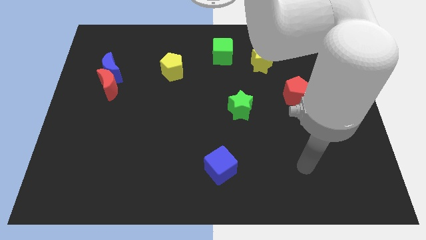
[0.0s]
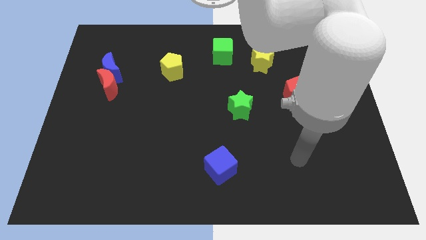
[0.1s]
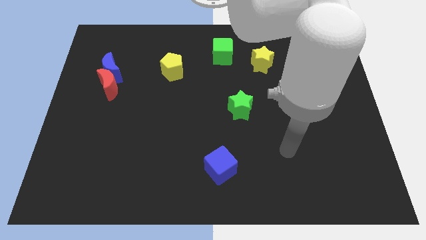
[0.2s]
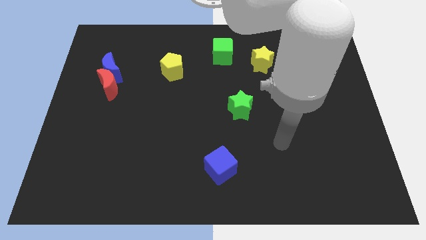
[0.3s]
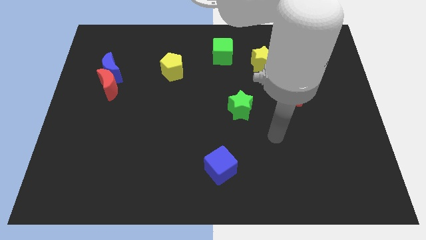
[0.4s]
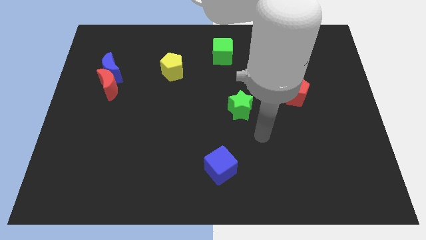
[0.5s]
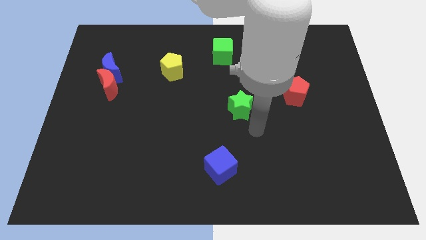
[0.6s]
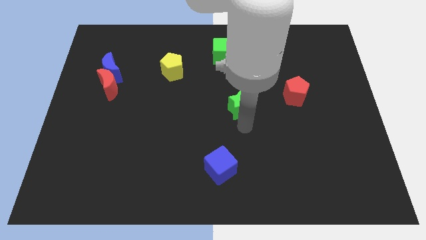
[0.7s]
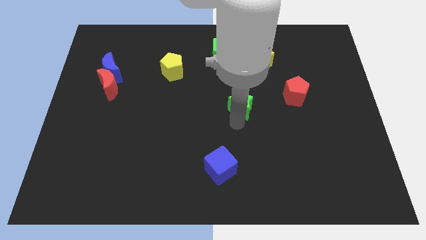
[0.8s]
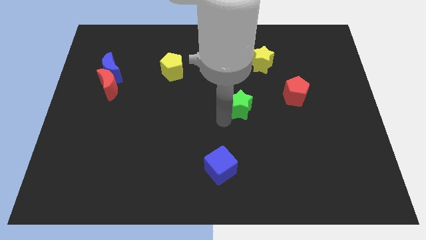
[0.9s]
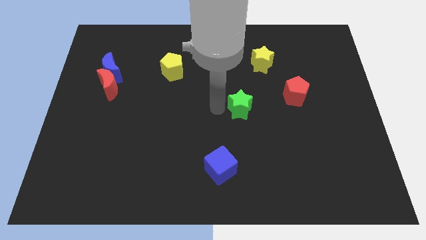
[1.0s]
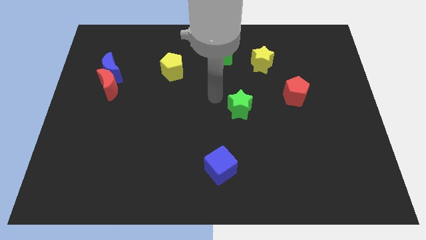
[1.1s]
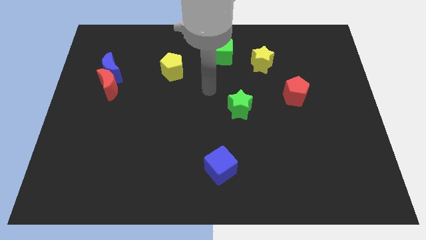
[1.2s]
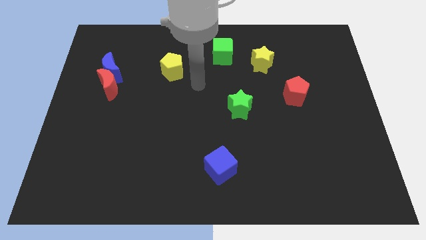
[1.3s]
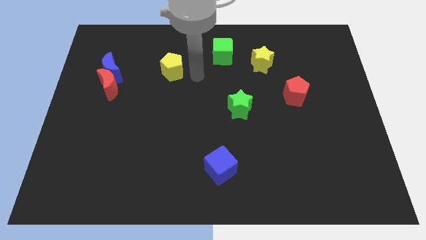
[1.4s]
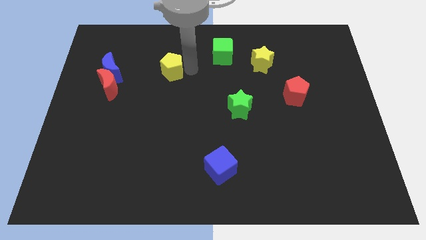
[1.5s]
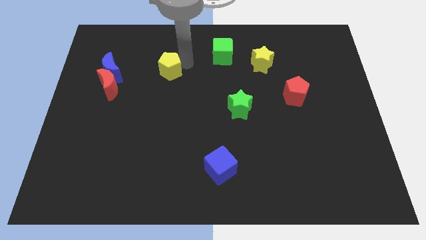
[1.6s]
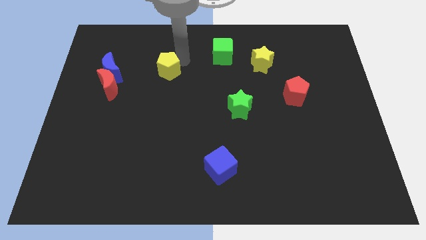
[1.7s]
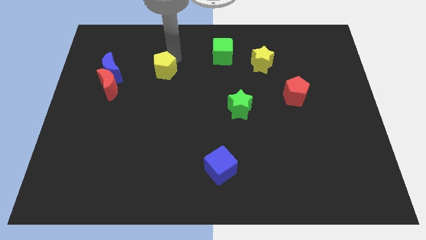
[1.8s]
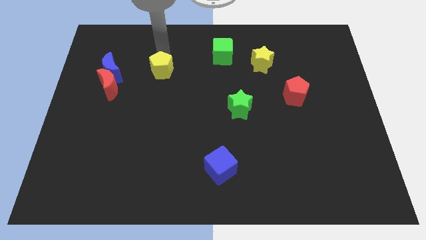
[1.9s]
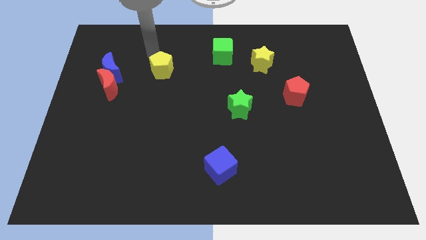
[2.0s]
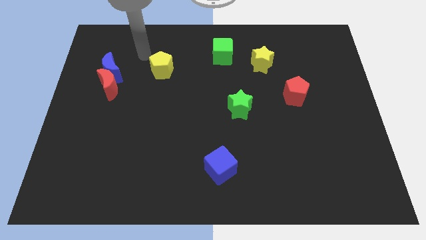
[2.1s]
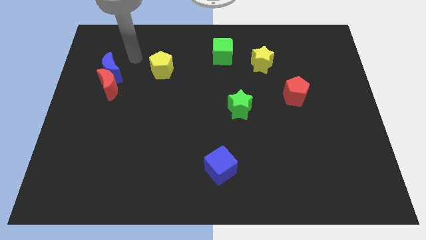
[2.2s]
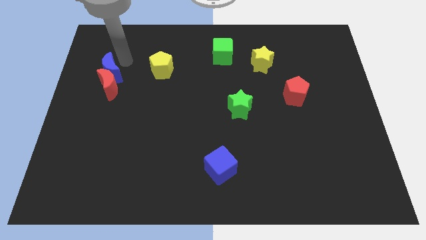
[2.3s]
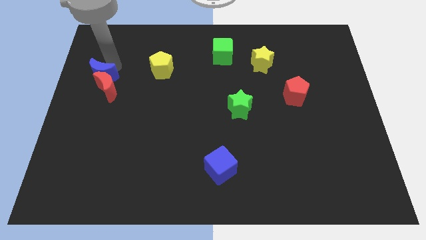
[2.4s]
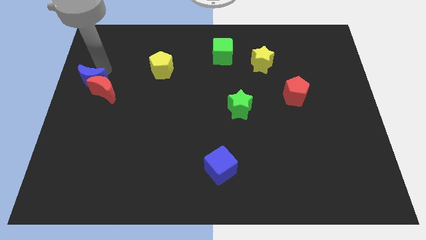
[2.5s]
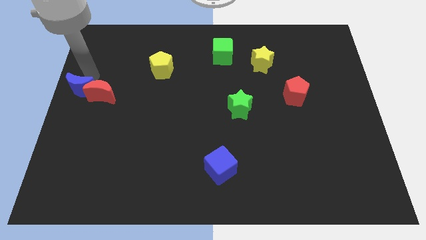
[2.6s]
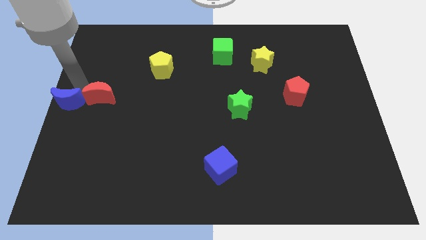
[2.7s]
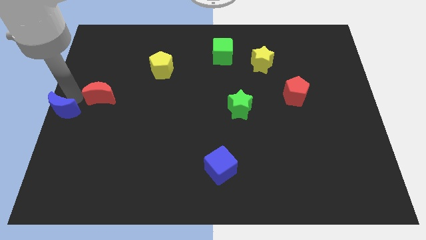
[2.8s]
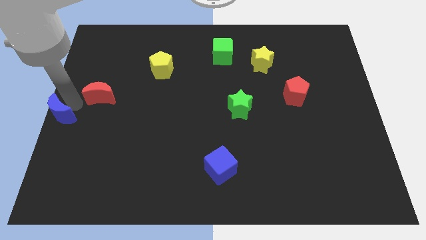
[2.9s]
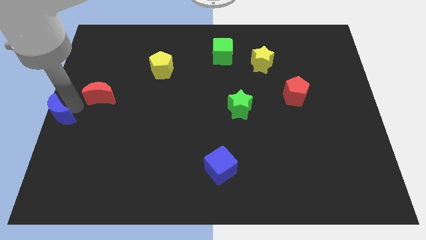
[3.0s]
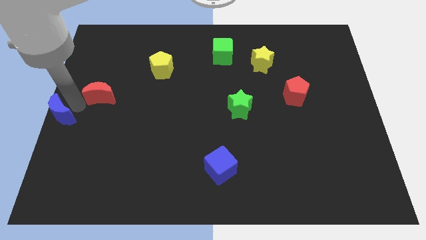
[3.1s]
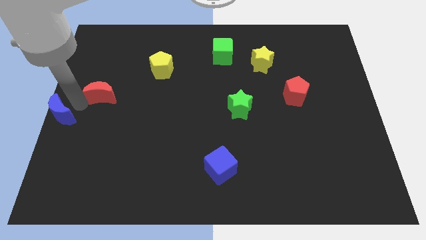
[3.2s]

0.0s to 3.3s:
pull the red moon apart from the blue moon

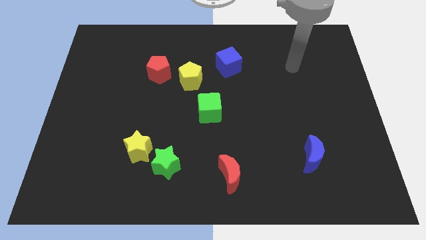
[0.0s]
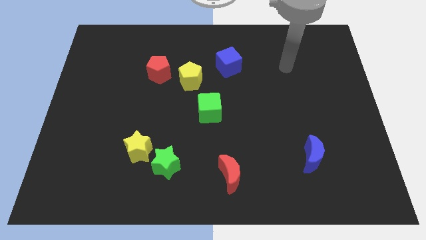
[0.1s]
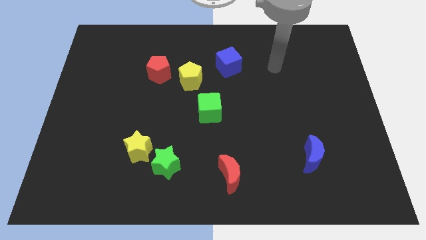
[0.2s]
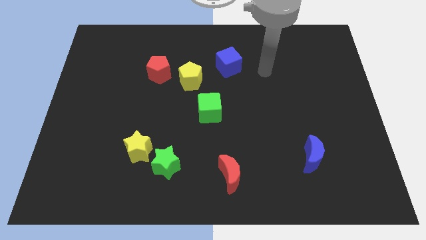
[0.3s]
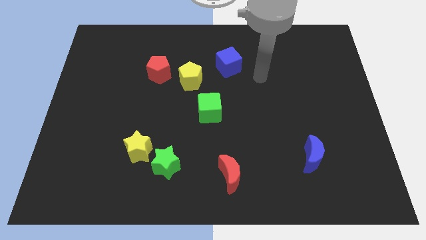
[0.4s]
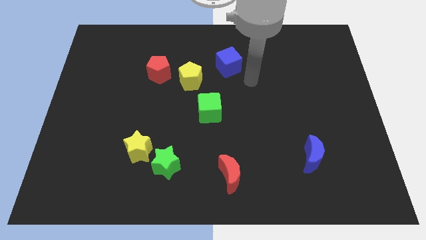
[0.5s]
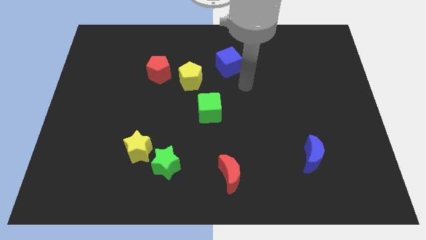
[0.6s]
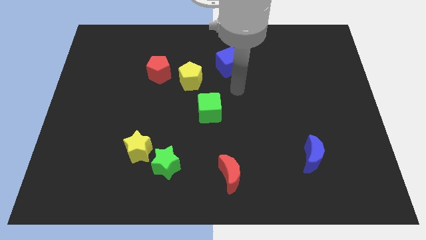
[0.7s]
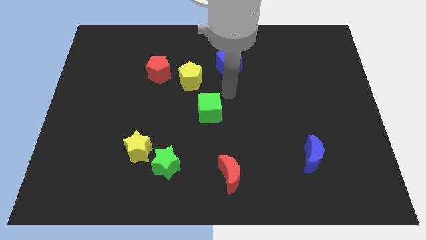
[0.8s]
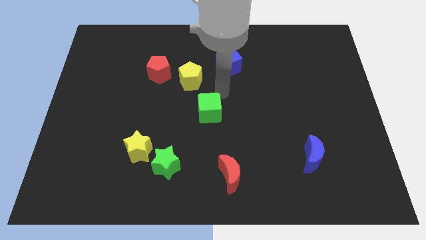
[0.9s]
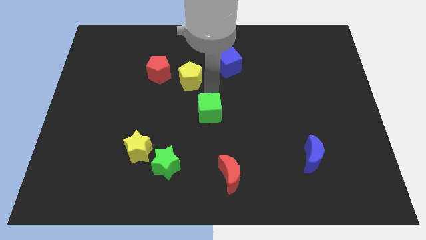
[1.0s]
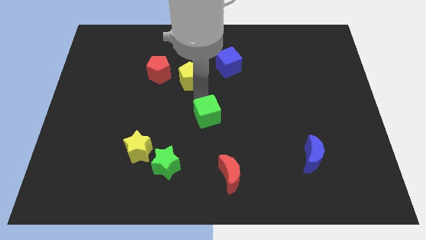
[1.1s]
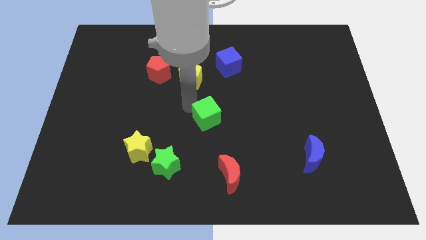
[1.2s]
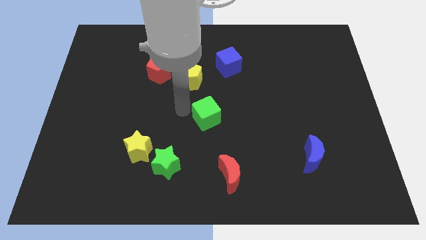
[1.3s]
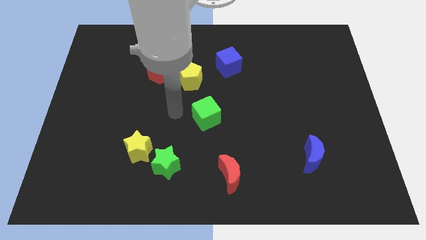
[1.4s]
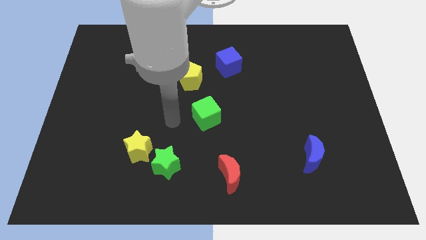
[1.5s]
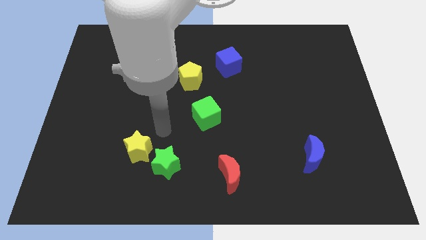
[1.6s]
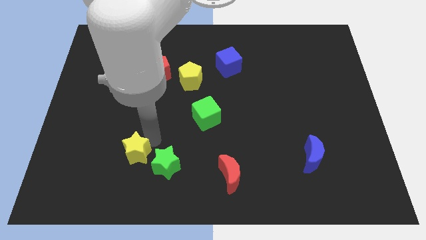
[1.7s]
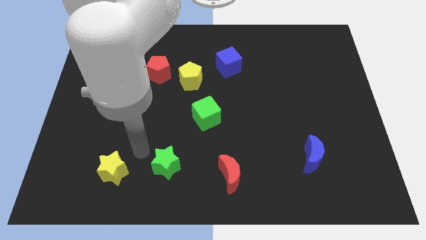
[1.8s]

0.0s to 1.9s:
separate the green star from the yellow star

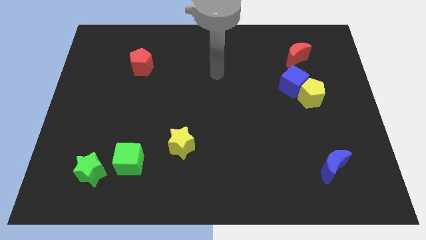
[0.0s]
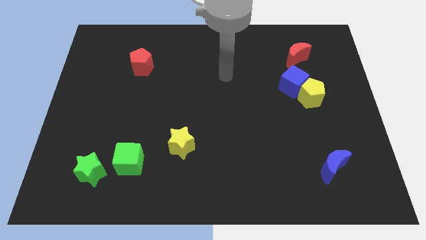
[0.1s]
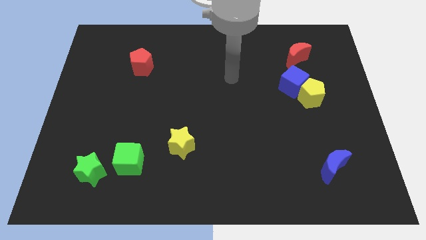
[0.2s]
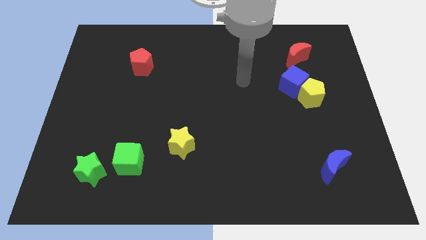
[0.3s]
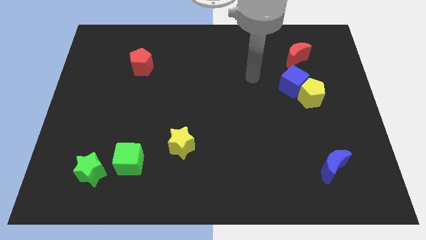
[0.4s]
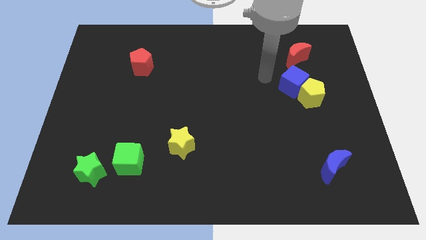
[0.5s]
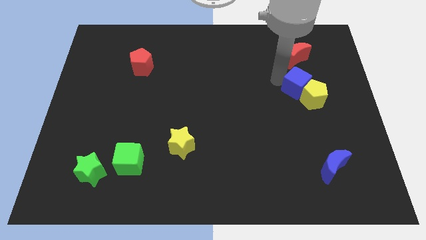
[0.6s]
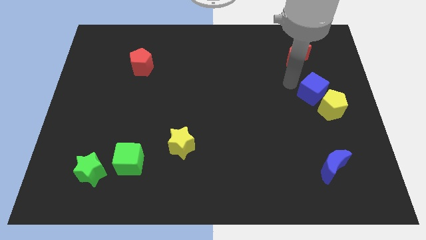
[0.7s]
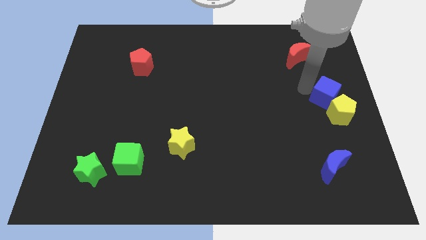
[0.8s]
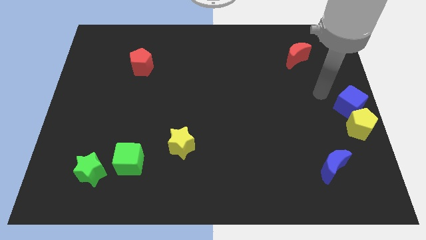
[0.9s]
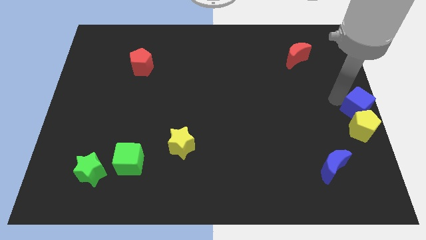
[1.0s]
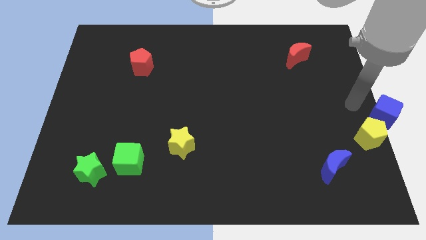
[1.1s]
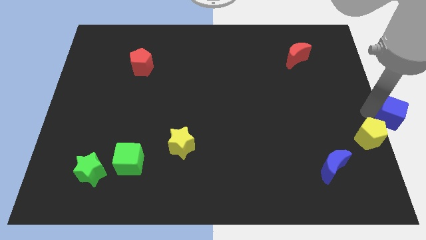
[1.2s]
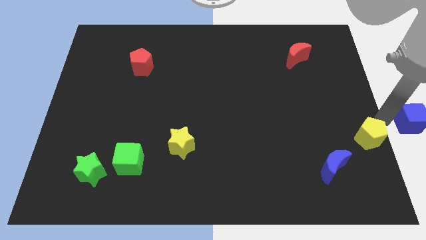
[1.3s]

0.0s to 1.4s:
separate the yellow pentagon from the blue cube

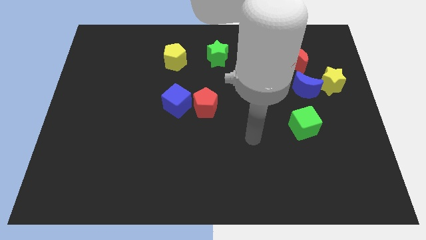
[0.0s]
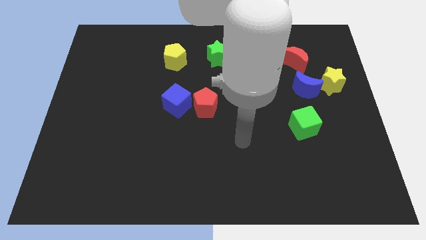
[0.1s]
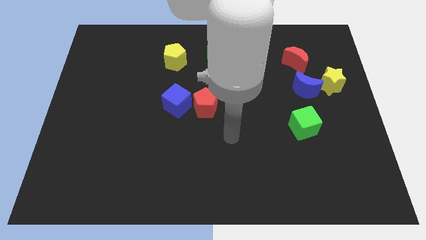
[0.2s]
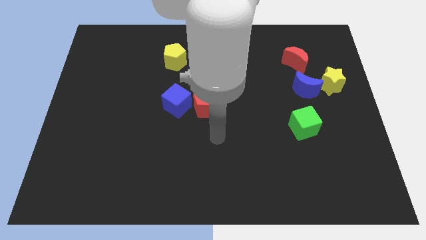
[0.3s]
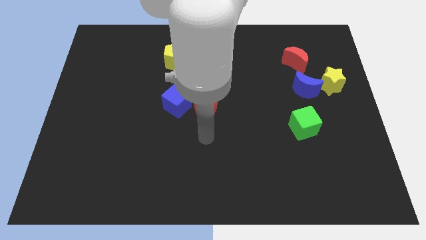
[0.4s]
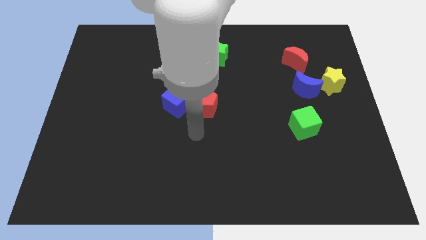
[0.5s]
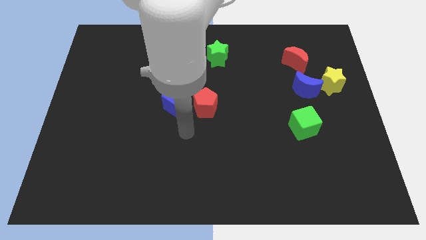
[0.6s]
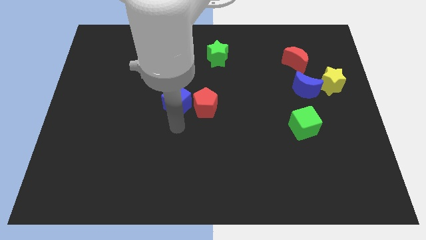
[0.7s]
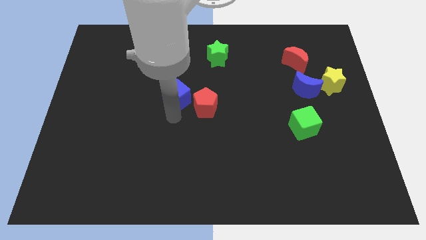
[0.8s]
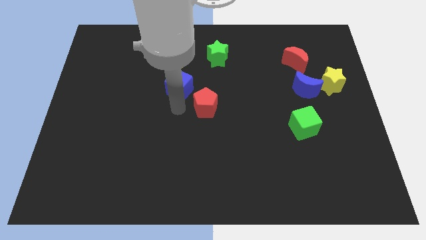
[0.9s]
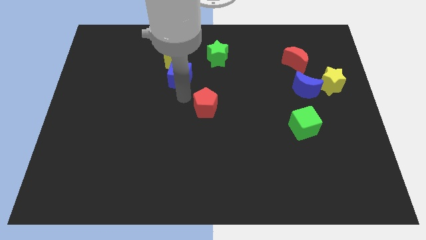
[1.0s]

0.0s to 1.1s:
separate the red pentagon from the blue cube

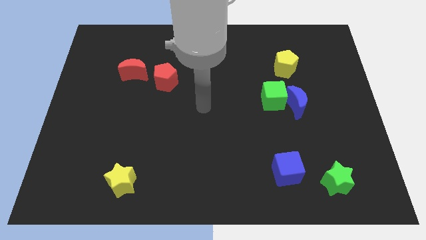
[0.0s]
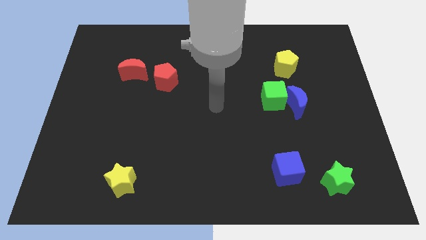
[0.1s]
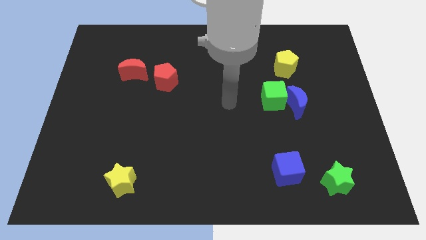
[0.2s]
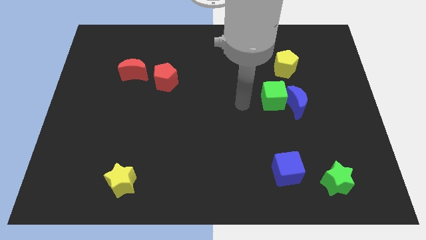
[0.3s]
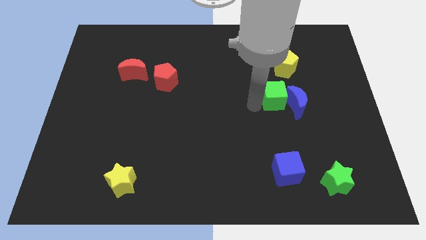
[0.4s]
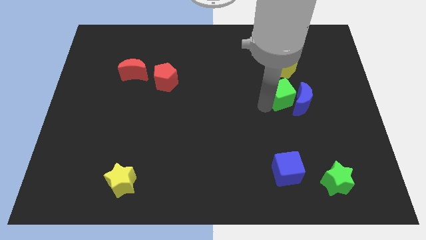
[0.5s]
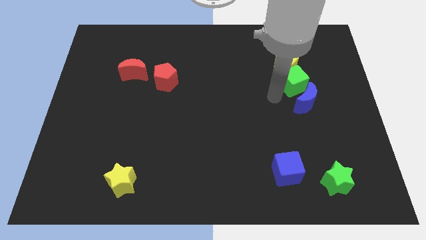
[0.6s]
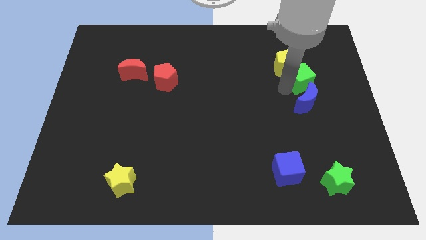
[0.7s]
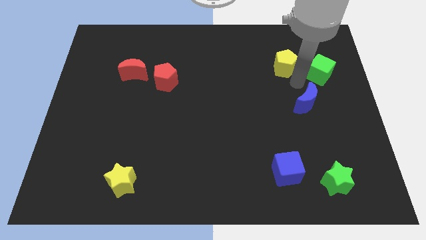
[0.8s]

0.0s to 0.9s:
pull the blue moon apart from the green cube

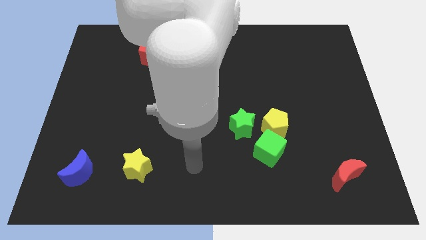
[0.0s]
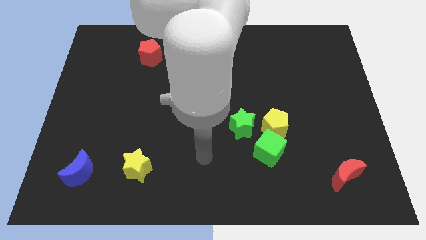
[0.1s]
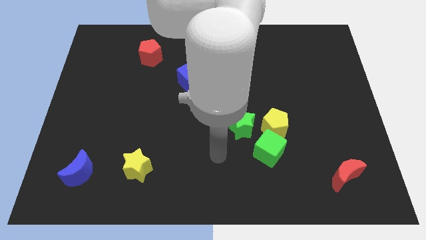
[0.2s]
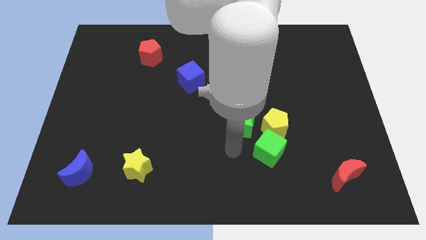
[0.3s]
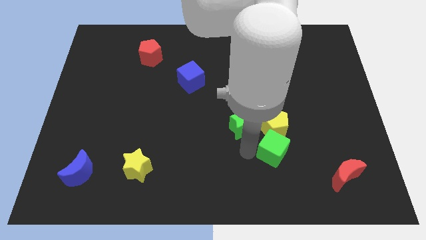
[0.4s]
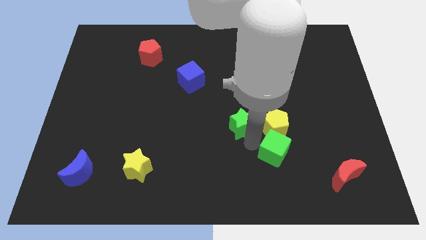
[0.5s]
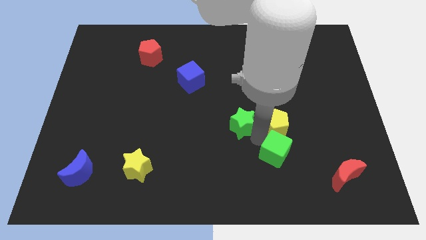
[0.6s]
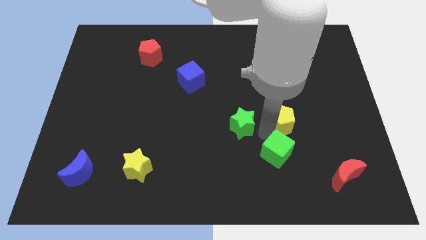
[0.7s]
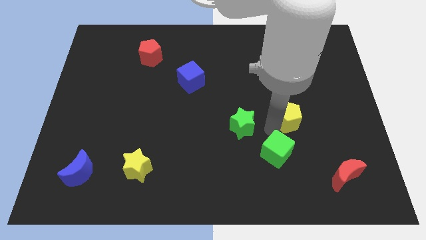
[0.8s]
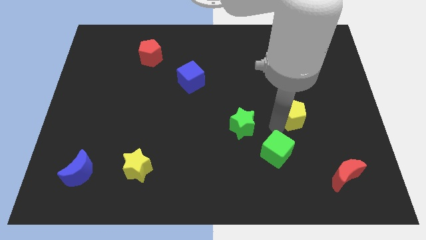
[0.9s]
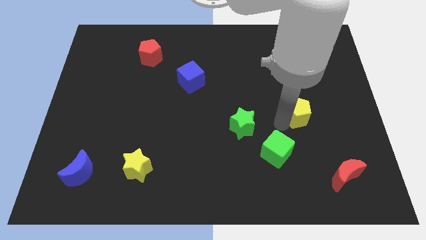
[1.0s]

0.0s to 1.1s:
move the yellow pentagon away from the green cube and green star
